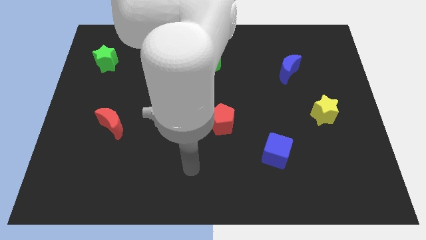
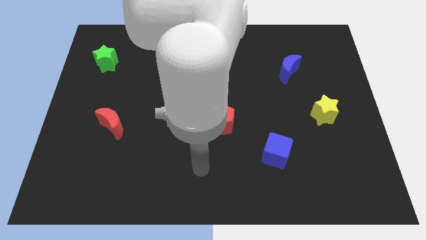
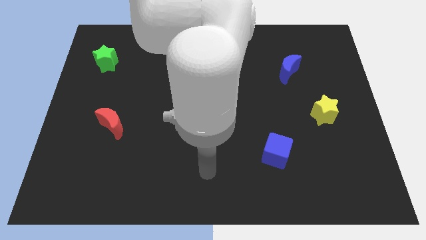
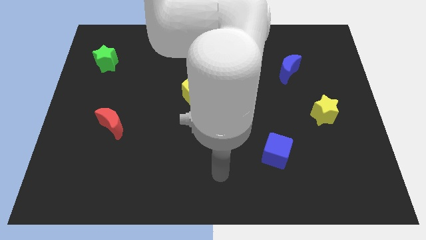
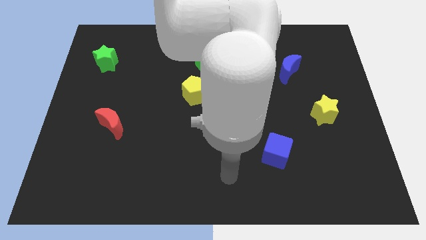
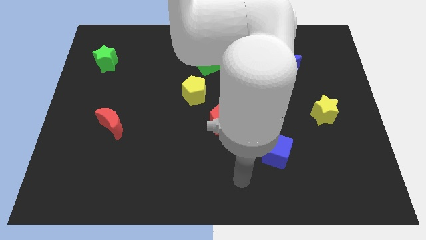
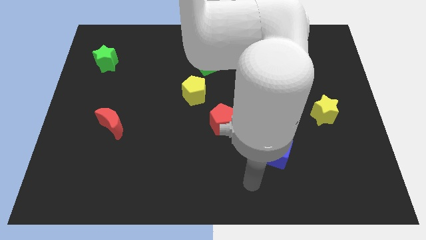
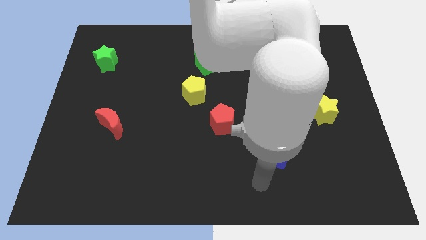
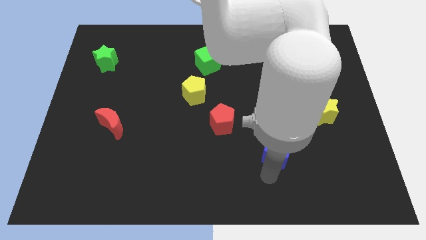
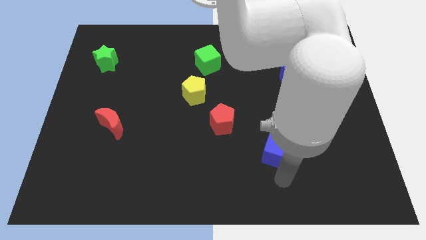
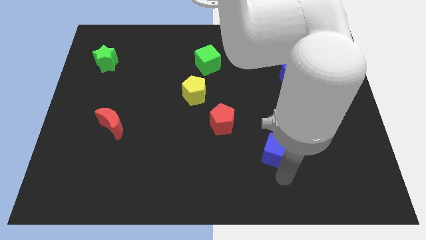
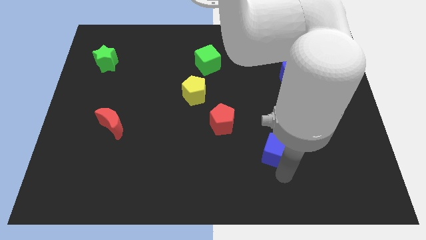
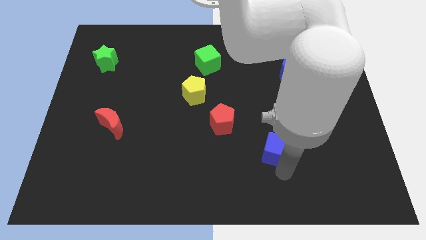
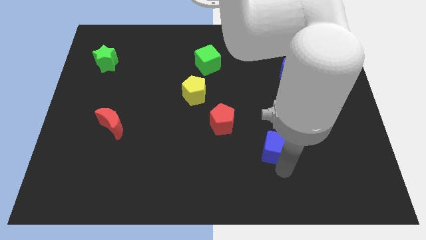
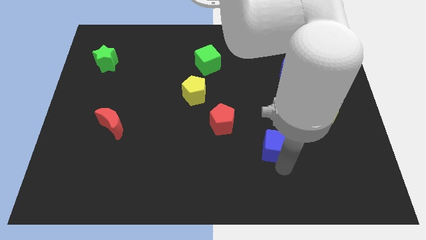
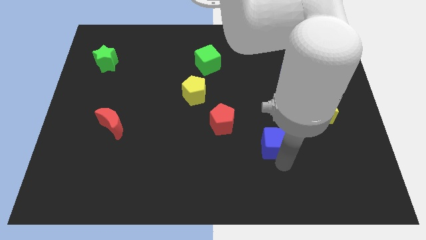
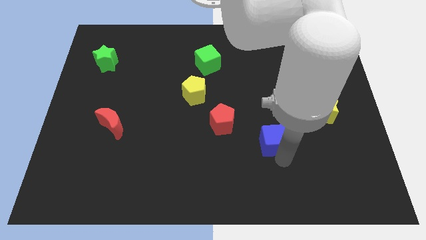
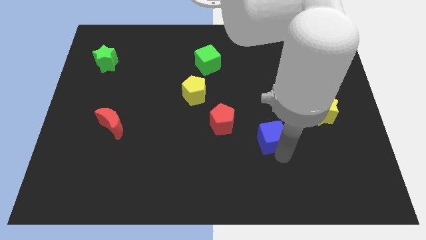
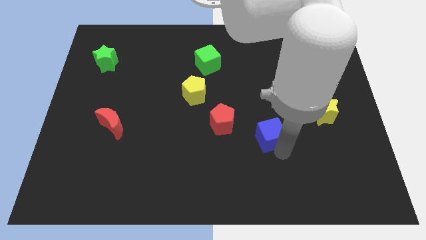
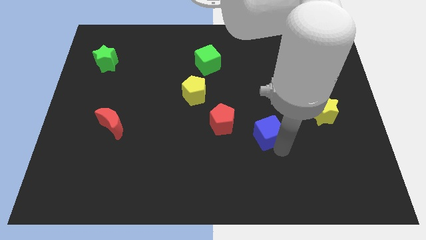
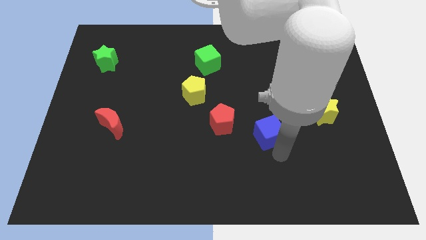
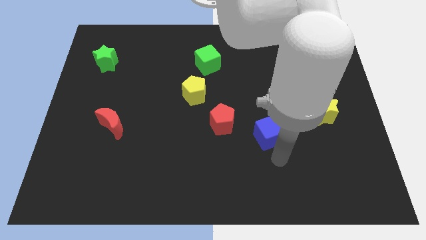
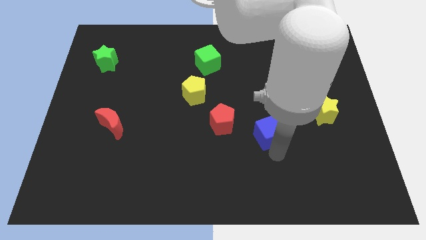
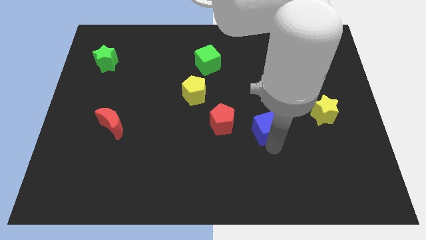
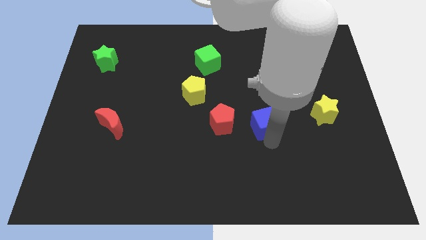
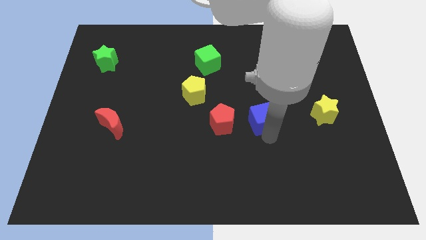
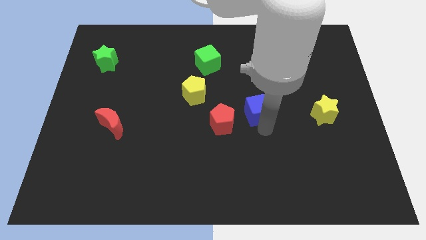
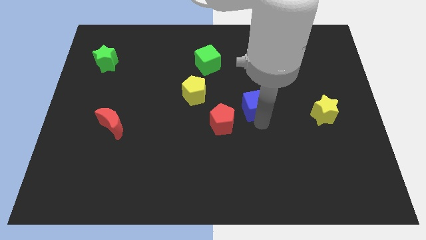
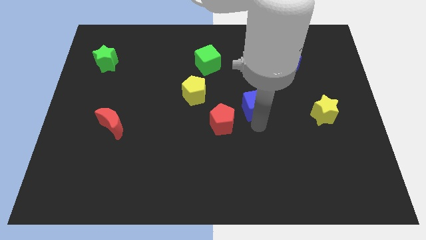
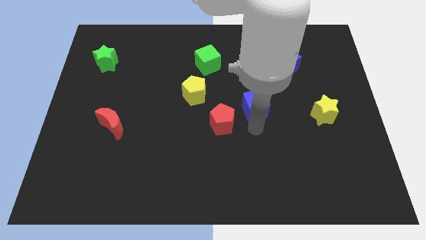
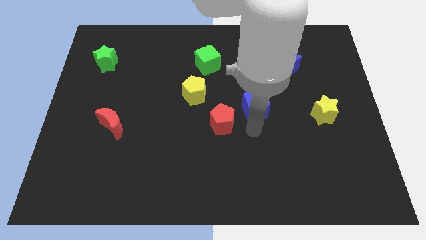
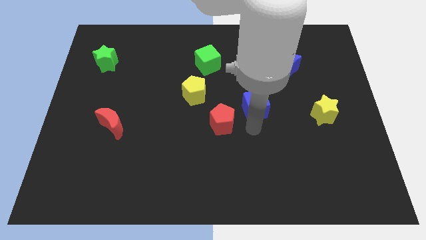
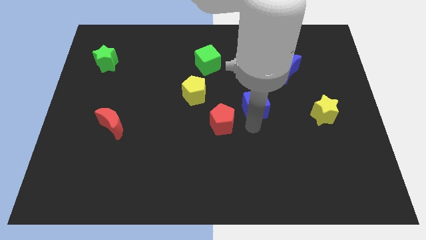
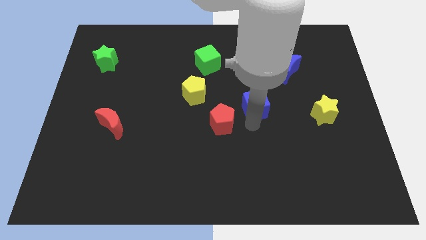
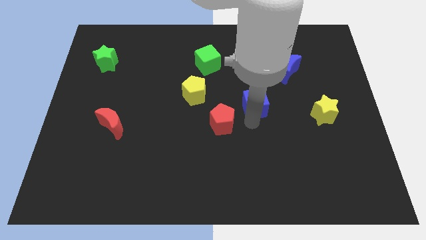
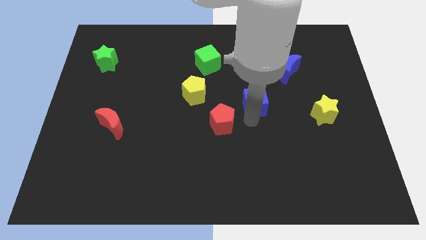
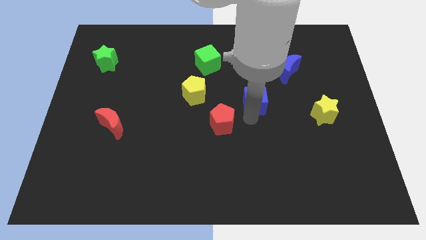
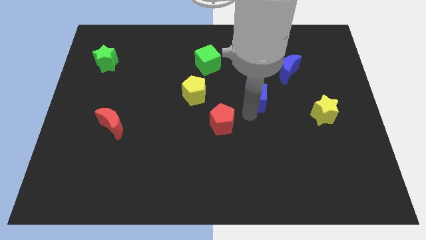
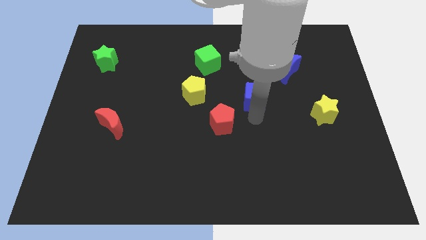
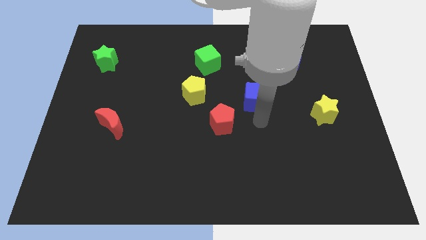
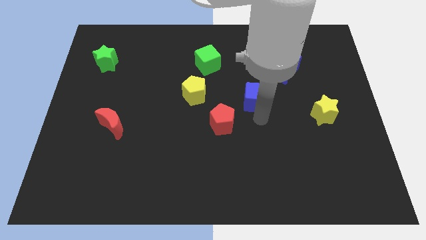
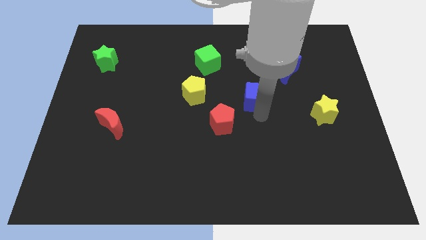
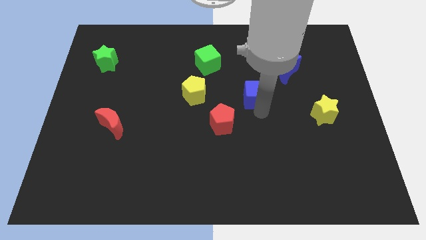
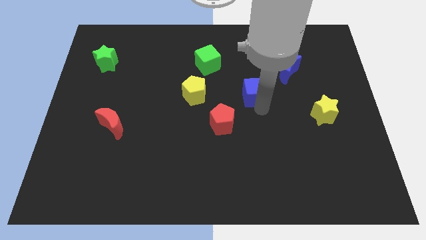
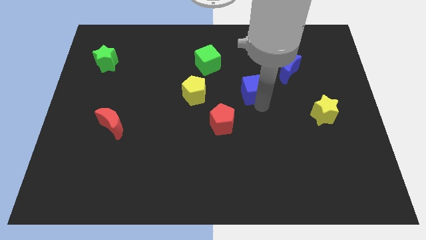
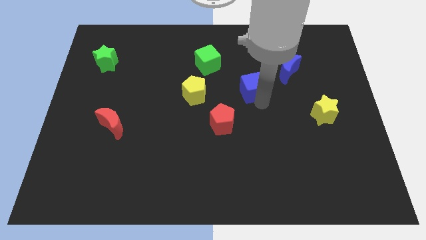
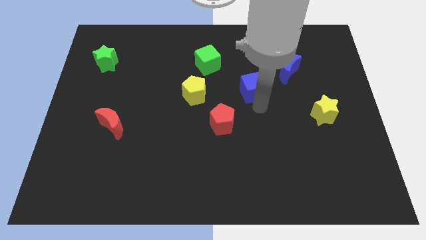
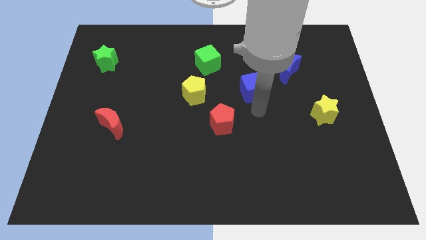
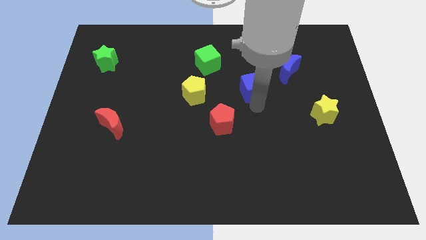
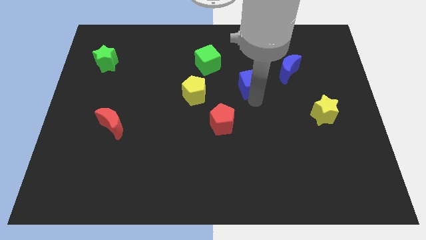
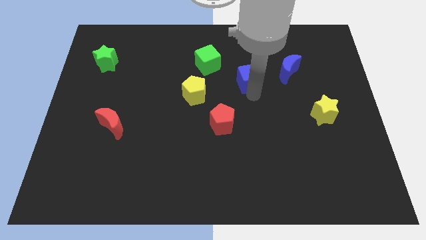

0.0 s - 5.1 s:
push the blue cube to the left of the blue moon

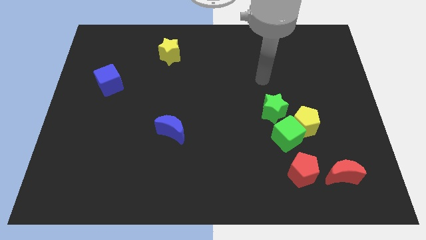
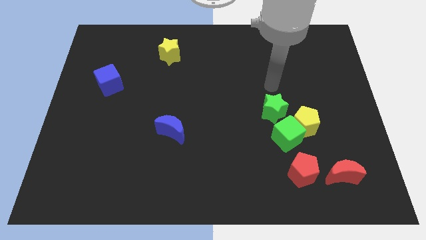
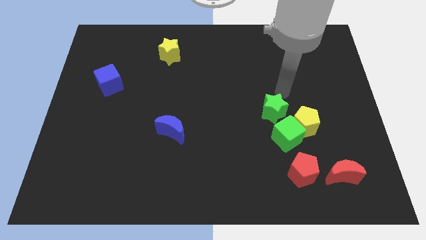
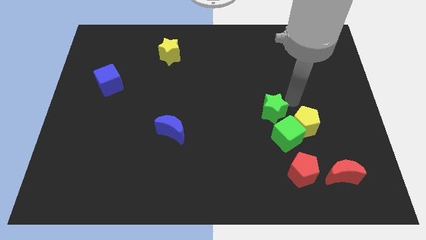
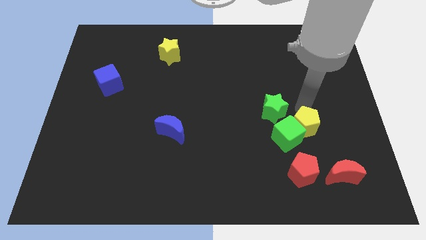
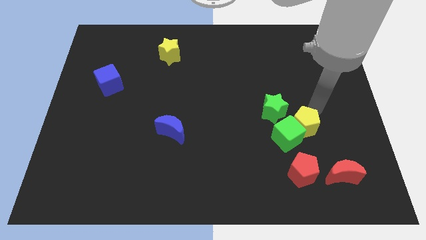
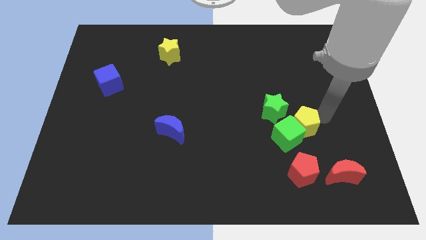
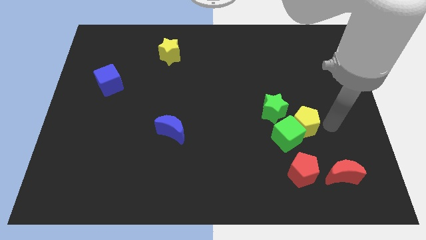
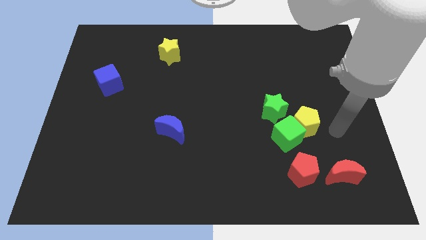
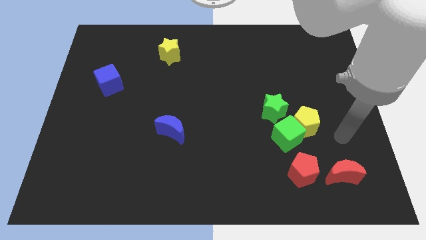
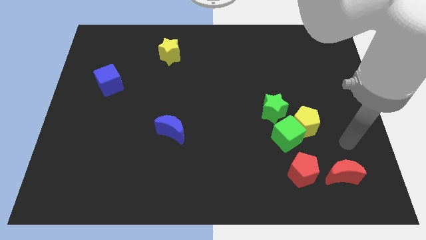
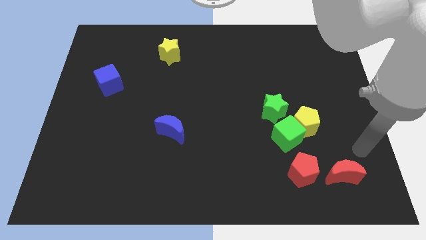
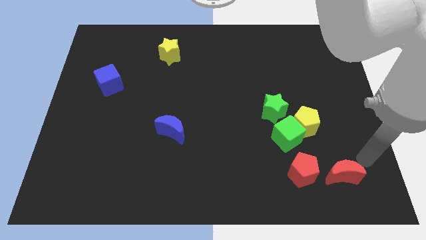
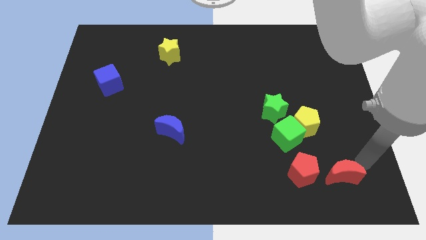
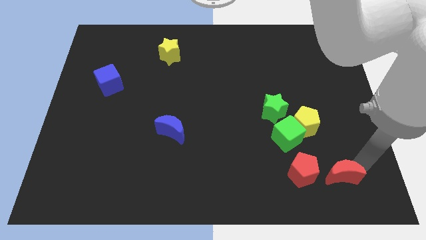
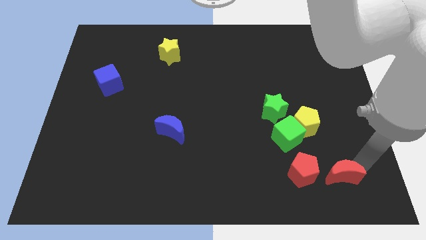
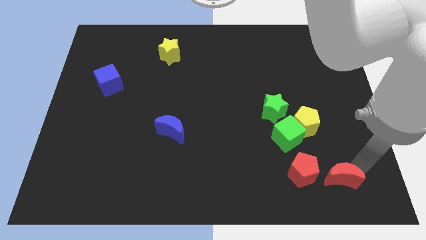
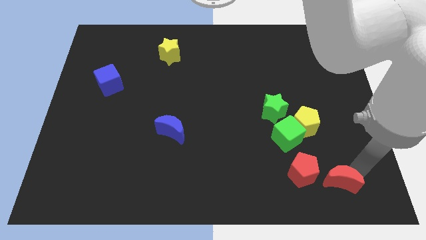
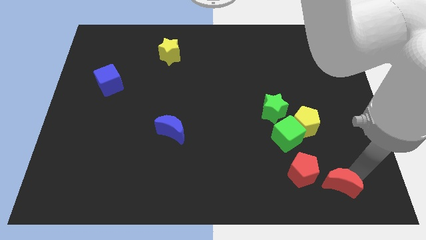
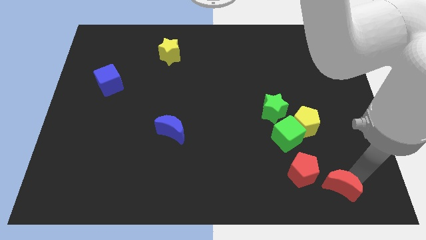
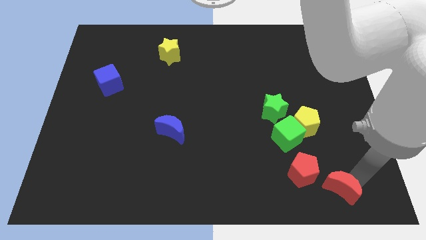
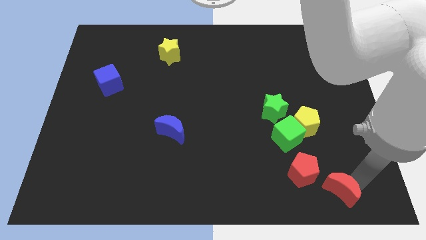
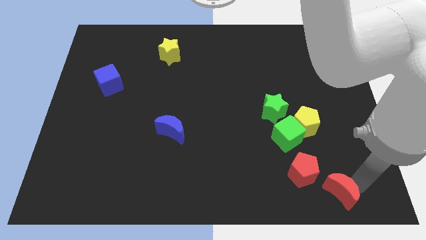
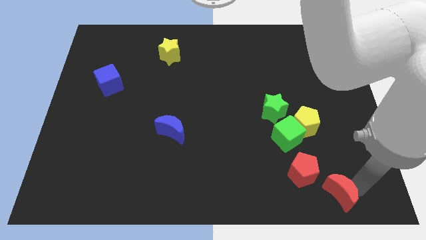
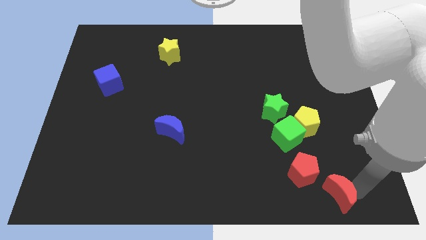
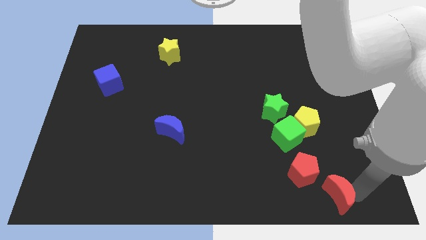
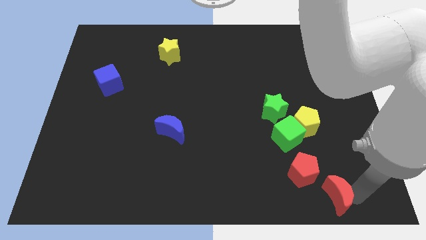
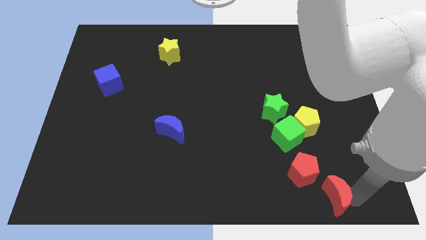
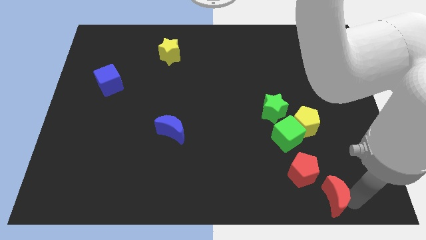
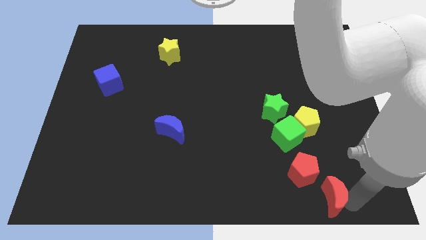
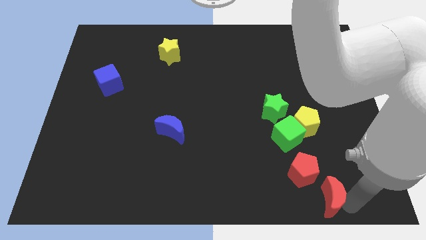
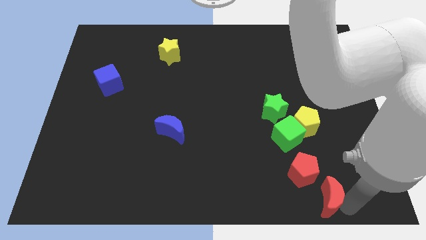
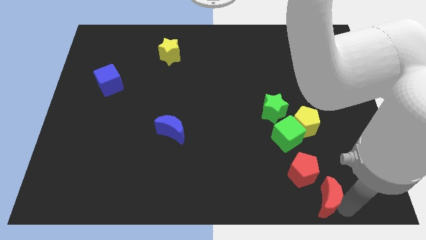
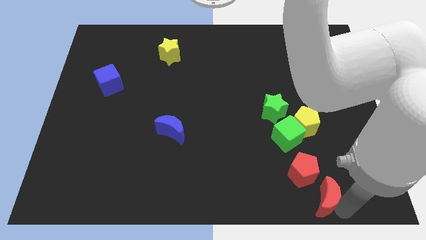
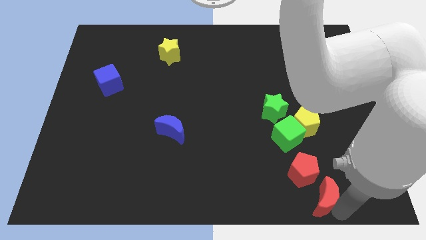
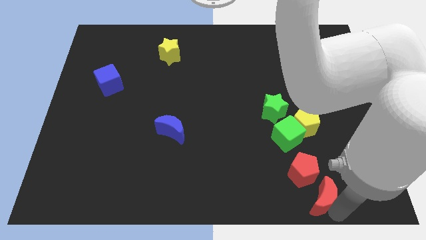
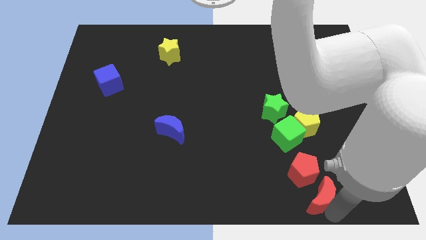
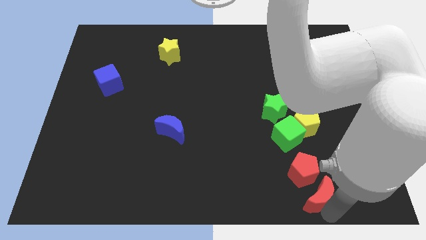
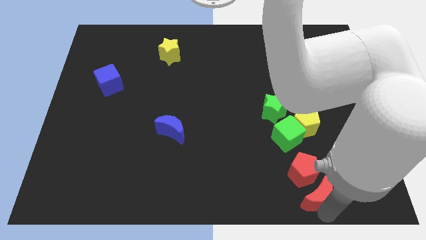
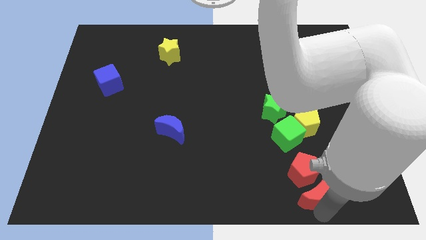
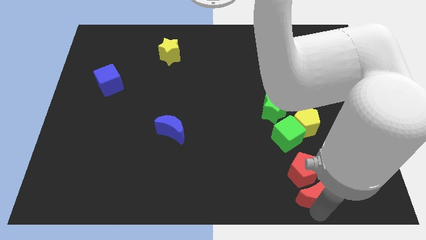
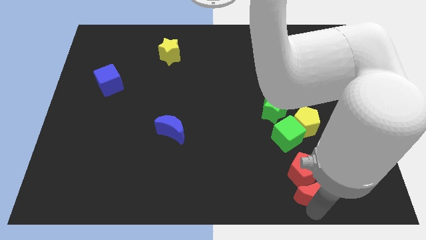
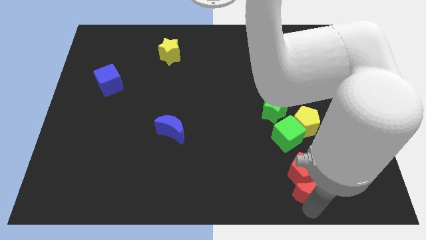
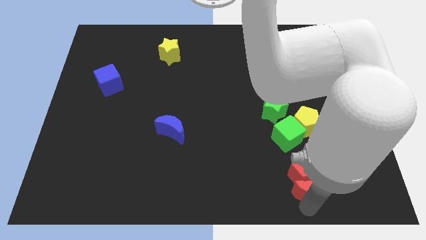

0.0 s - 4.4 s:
move the red moon below the yellow pentagon
